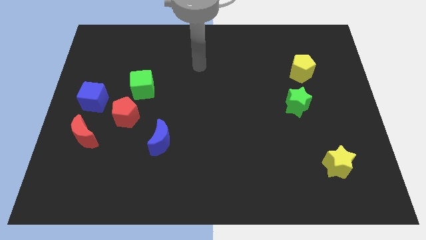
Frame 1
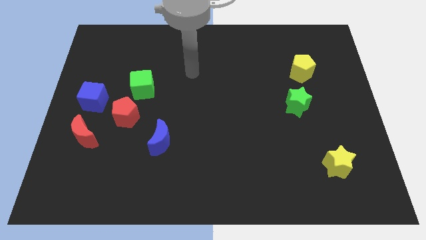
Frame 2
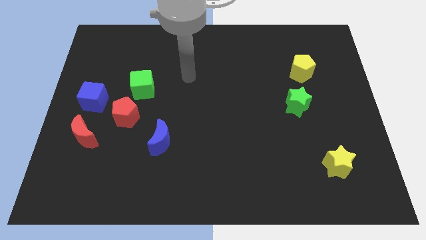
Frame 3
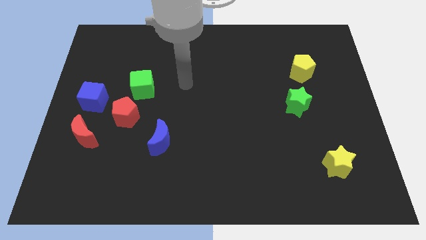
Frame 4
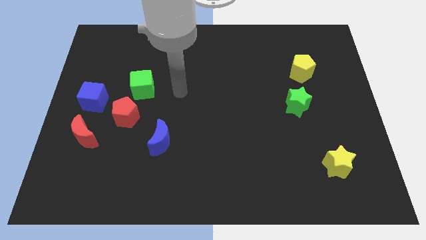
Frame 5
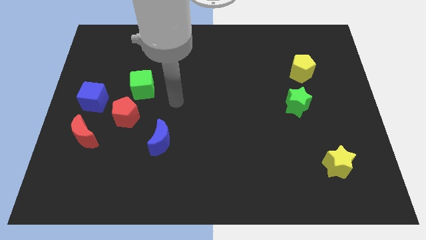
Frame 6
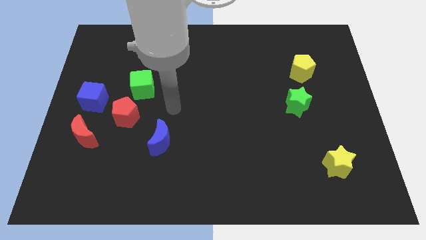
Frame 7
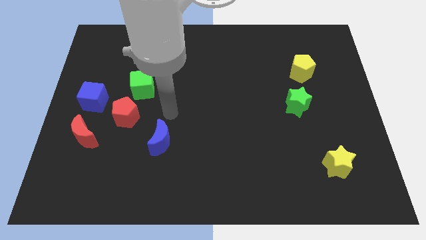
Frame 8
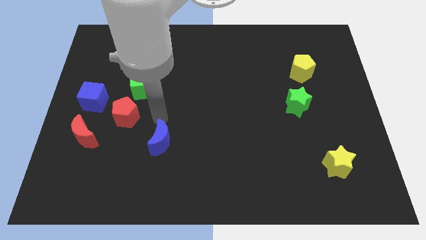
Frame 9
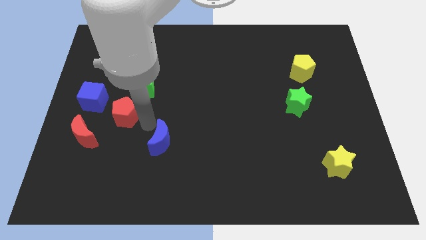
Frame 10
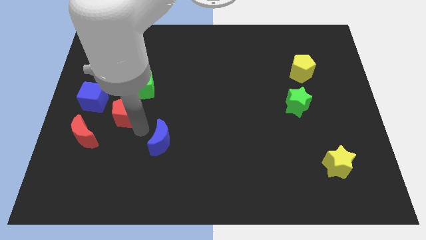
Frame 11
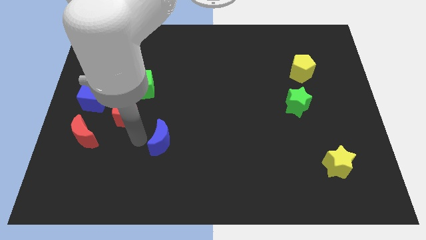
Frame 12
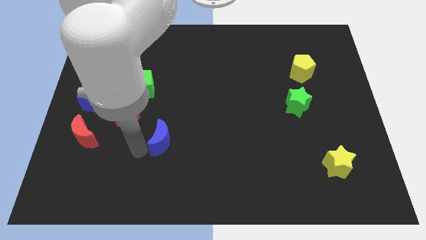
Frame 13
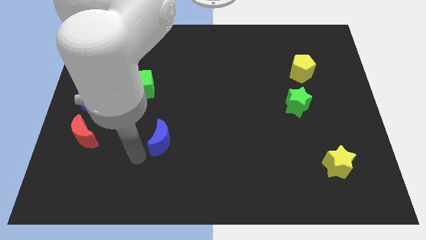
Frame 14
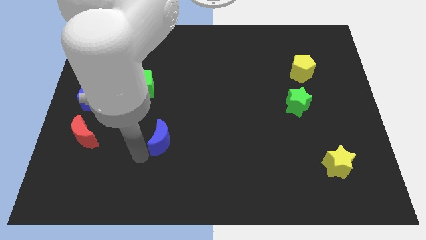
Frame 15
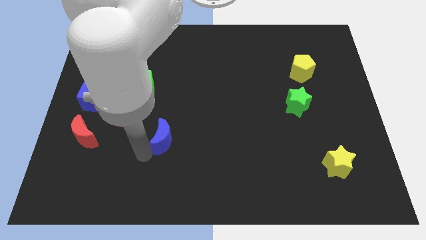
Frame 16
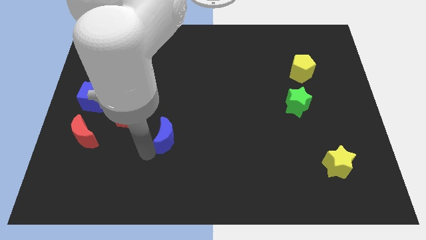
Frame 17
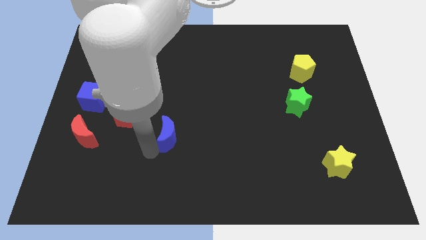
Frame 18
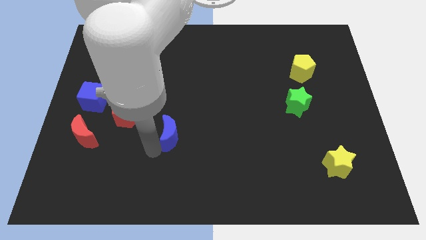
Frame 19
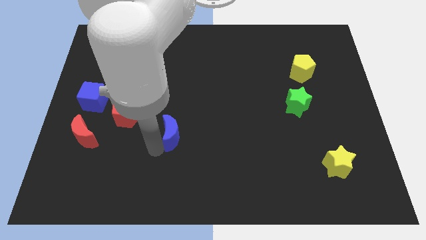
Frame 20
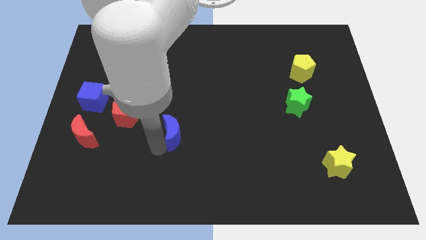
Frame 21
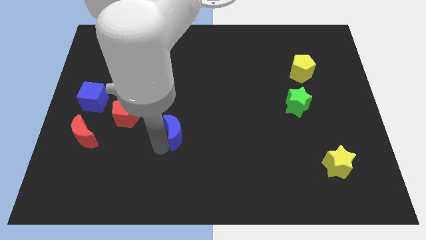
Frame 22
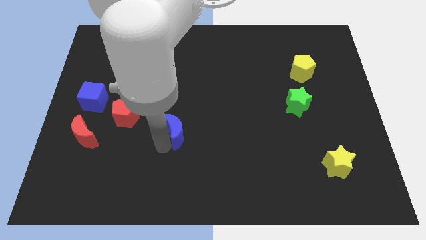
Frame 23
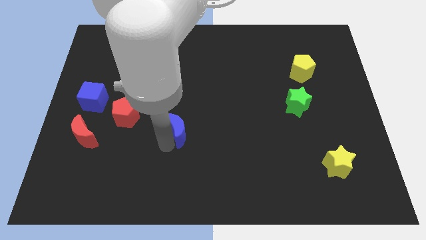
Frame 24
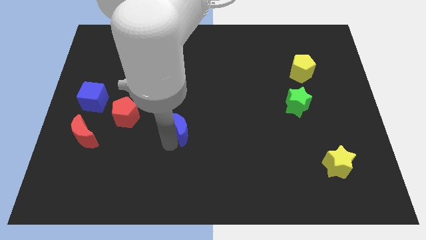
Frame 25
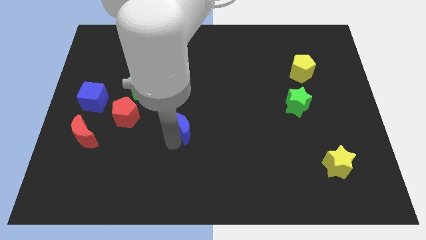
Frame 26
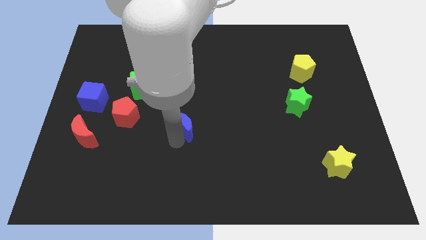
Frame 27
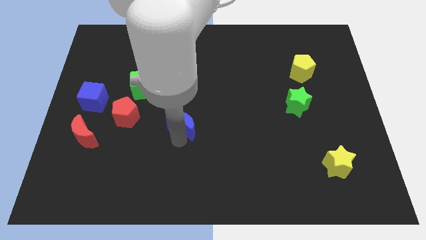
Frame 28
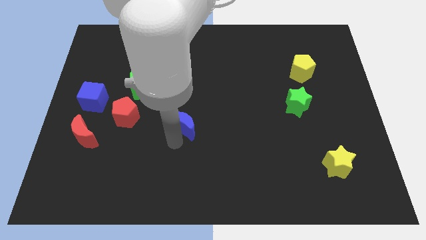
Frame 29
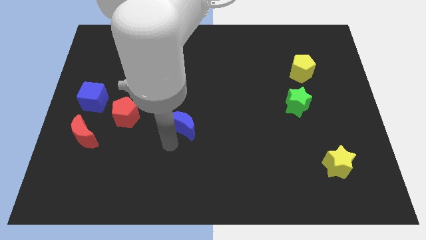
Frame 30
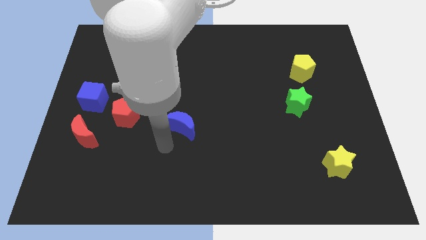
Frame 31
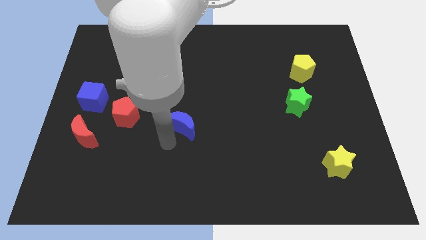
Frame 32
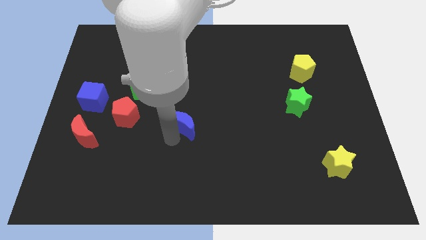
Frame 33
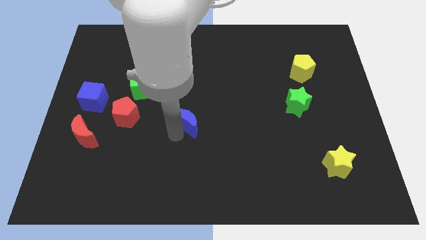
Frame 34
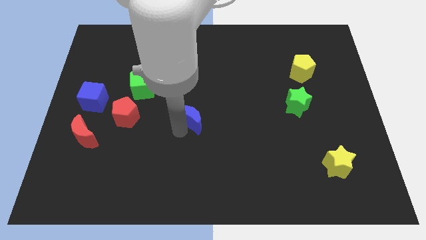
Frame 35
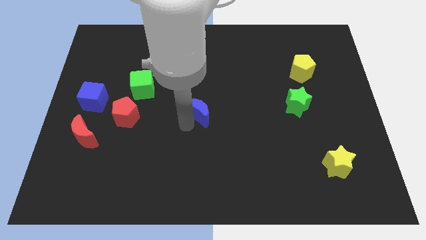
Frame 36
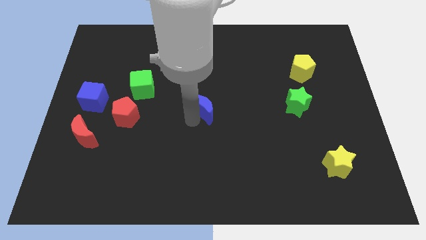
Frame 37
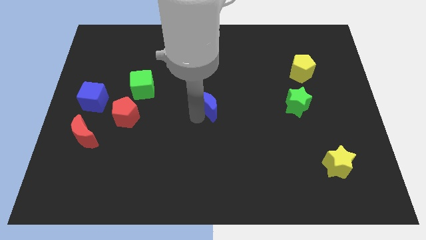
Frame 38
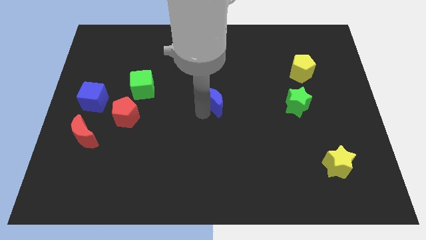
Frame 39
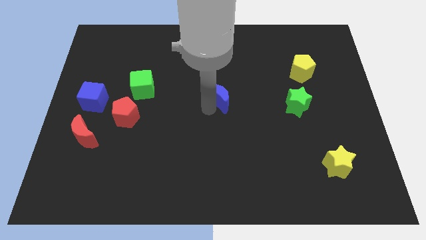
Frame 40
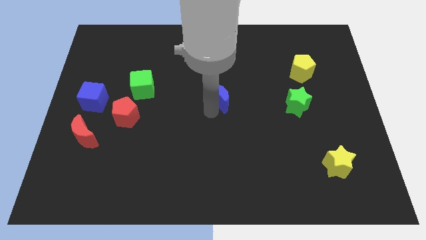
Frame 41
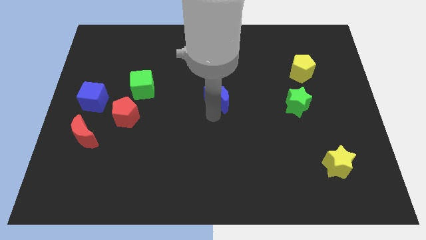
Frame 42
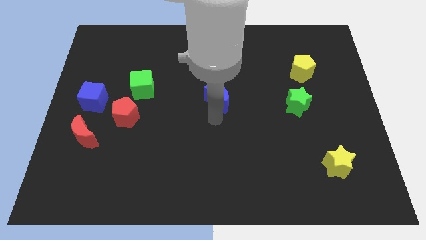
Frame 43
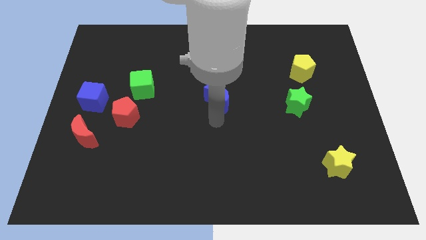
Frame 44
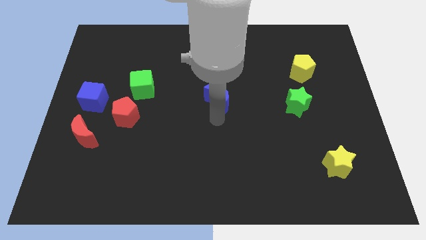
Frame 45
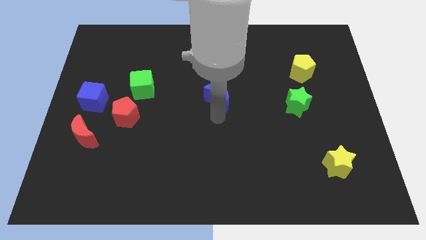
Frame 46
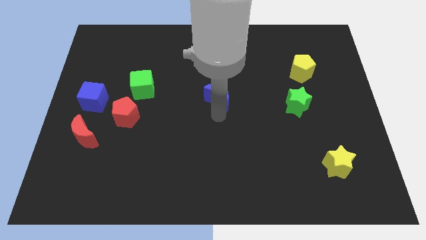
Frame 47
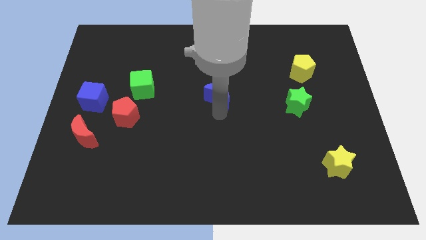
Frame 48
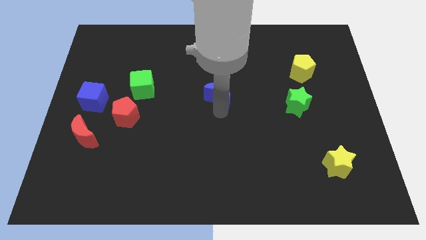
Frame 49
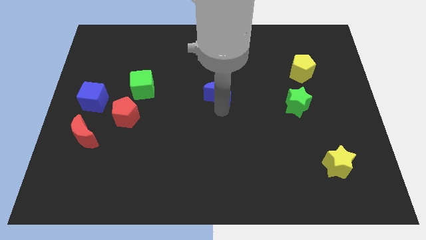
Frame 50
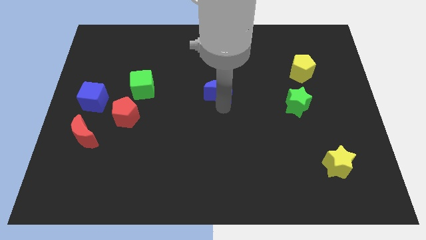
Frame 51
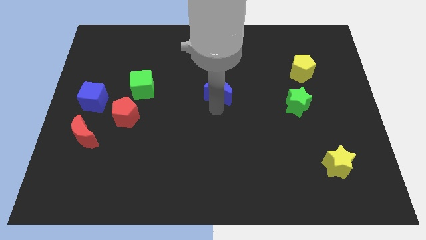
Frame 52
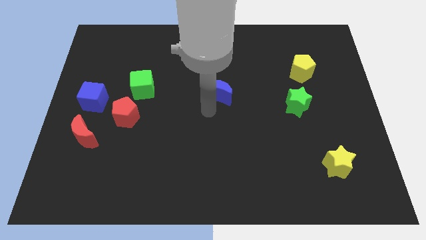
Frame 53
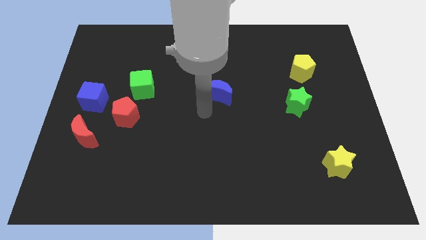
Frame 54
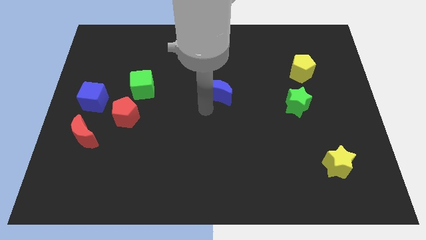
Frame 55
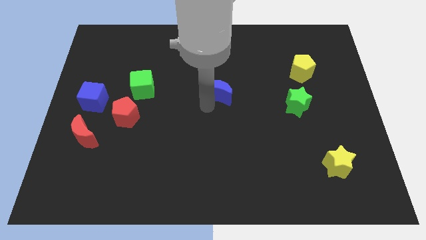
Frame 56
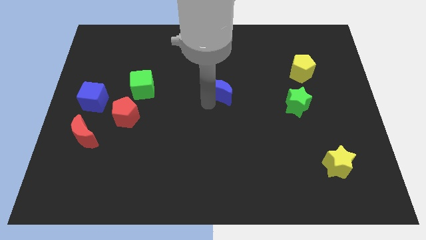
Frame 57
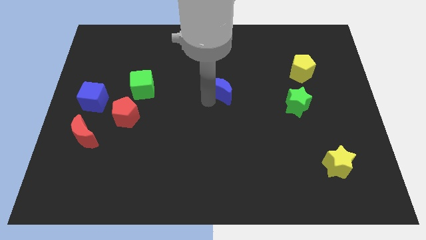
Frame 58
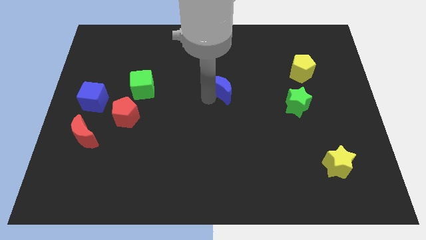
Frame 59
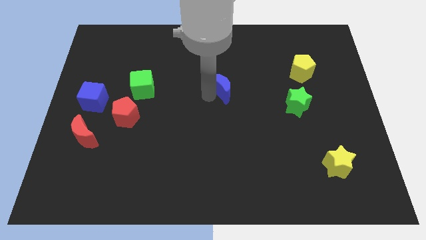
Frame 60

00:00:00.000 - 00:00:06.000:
slide the blue moon up and right

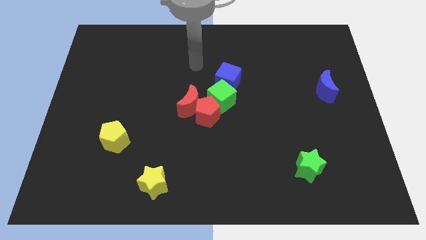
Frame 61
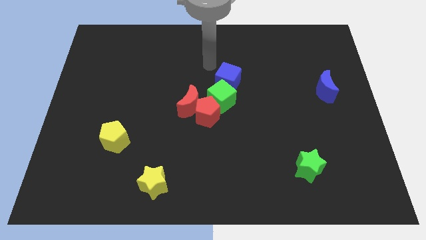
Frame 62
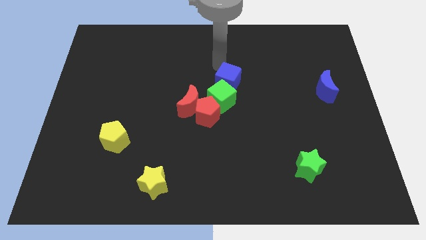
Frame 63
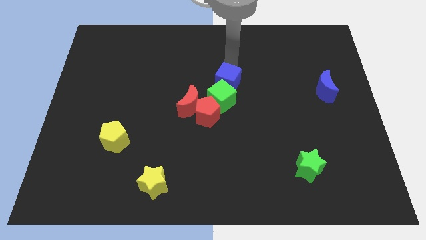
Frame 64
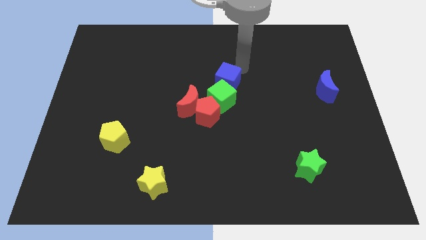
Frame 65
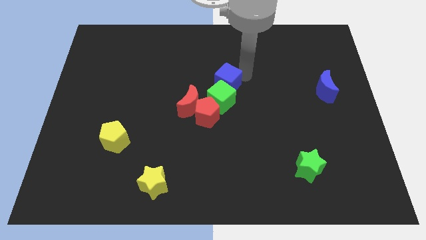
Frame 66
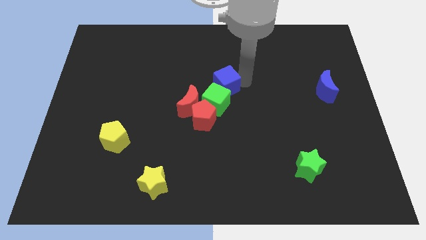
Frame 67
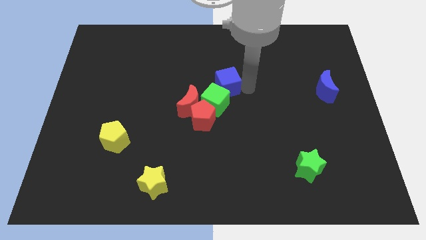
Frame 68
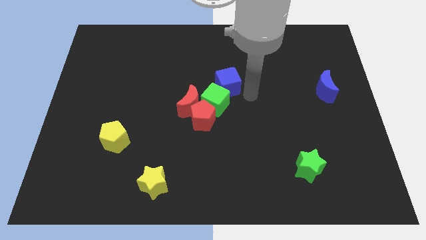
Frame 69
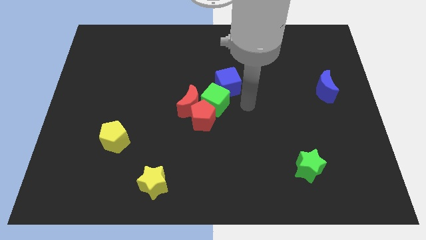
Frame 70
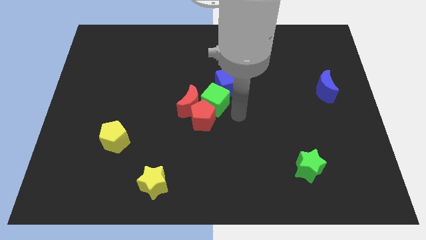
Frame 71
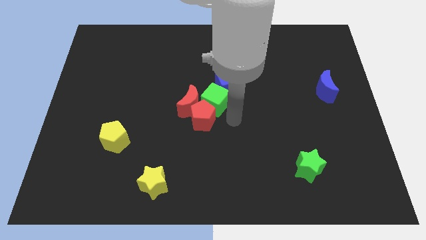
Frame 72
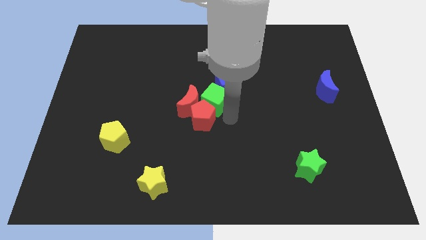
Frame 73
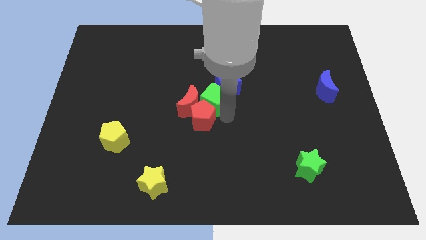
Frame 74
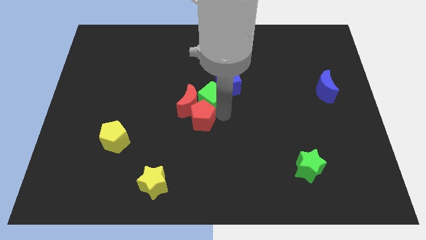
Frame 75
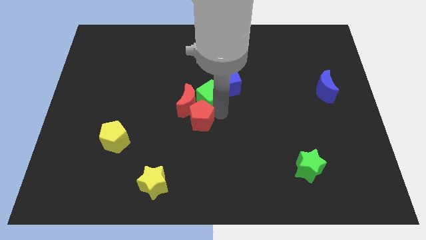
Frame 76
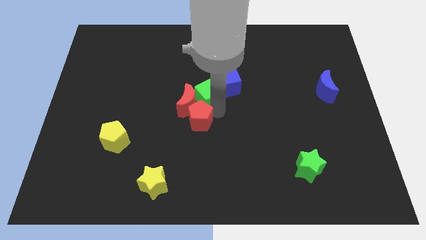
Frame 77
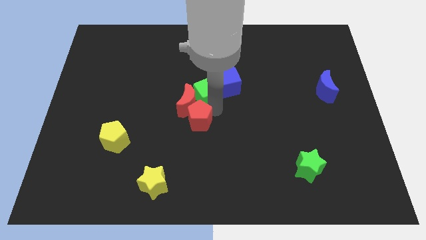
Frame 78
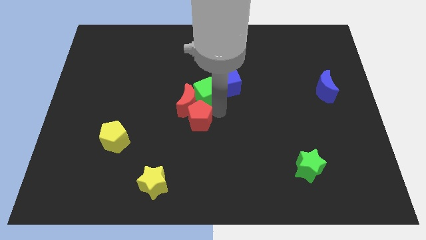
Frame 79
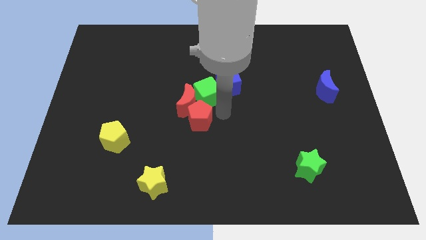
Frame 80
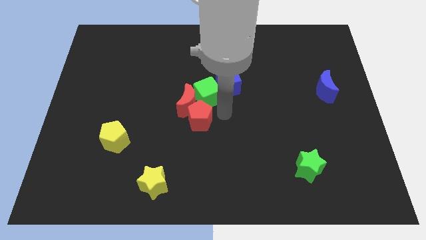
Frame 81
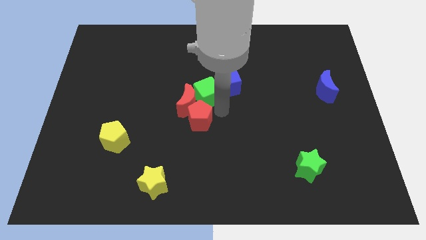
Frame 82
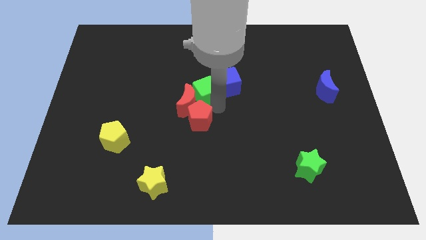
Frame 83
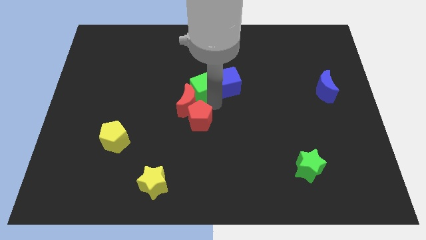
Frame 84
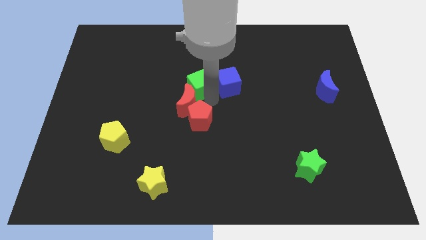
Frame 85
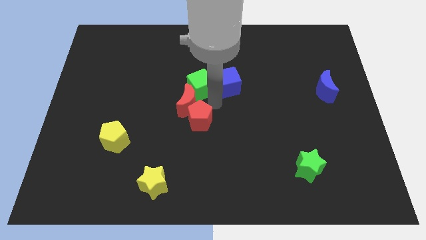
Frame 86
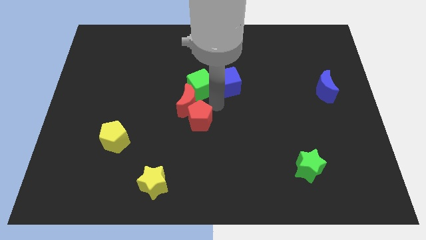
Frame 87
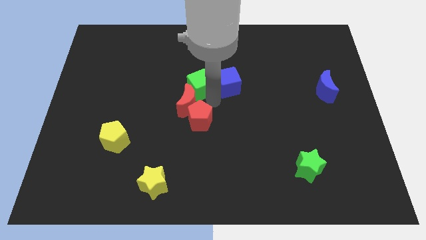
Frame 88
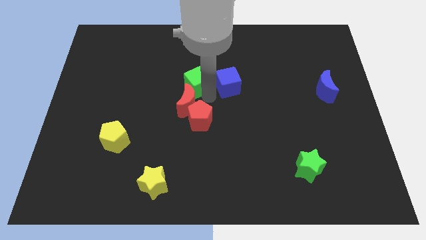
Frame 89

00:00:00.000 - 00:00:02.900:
slightly slide the green cube diagonally upwards and to the left
